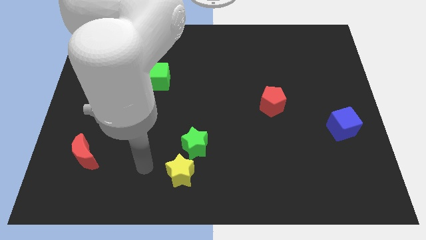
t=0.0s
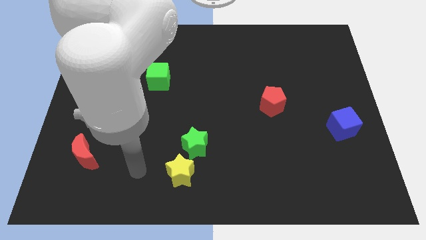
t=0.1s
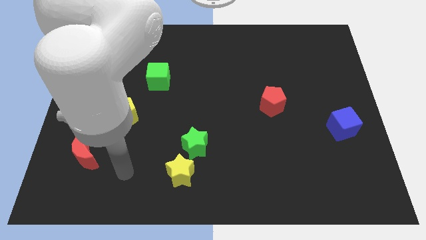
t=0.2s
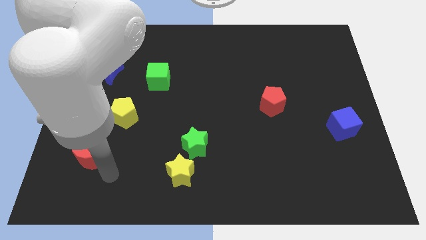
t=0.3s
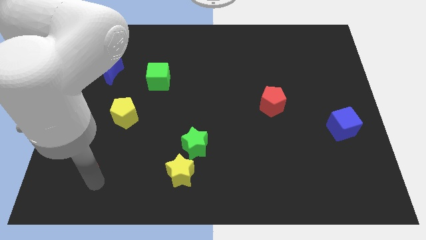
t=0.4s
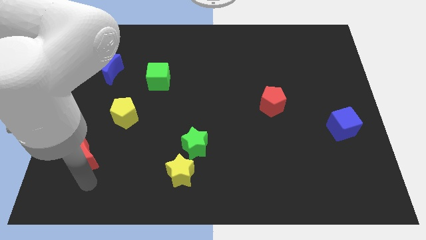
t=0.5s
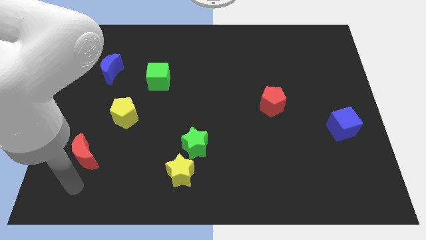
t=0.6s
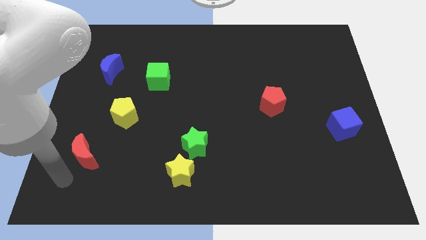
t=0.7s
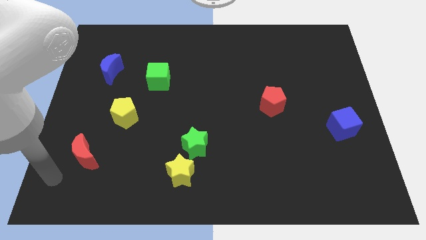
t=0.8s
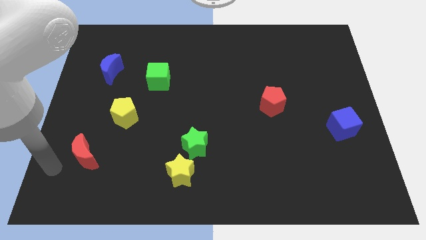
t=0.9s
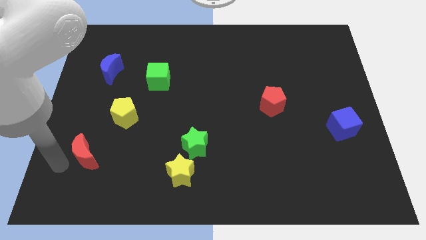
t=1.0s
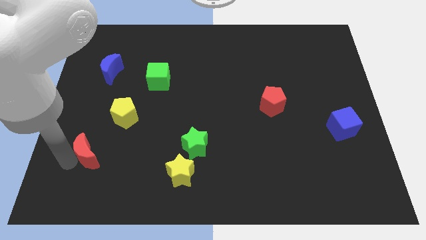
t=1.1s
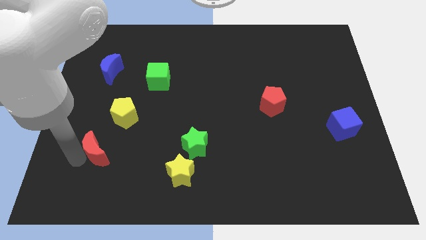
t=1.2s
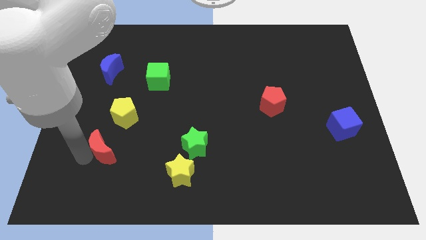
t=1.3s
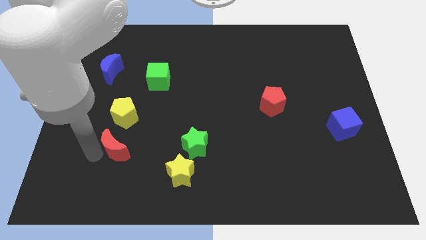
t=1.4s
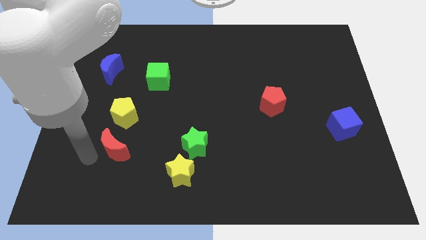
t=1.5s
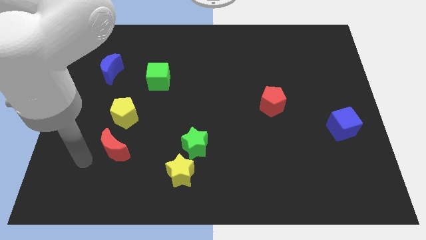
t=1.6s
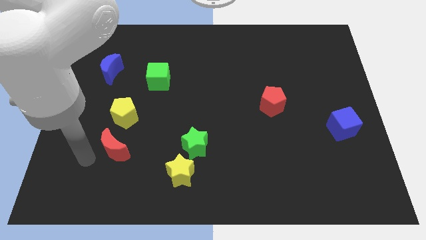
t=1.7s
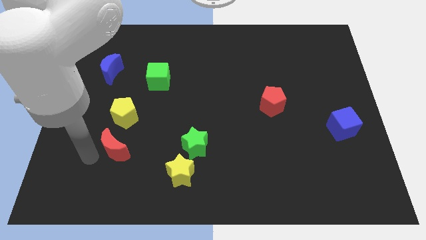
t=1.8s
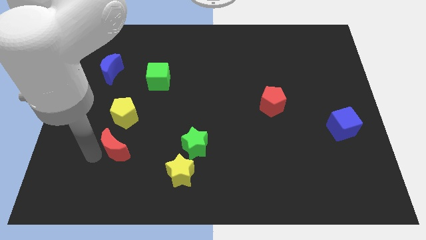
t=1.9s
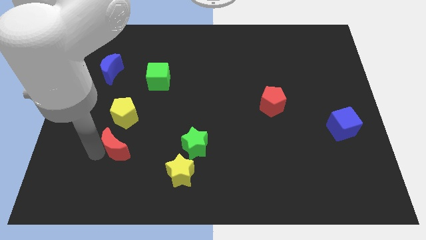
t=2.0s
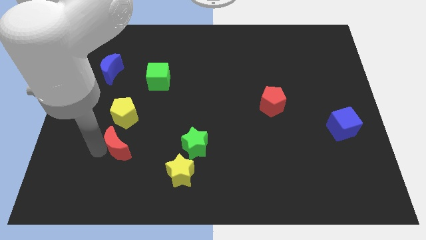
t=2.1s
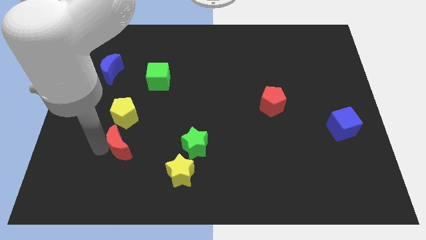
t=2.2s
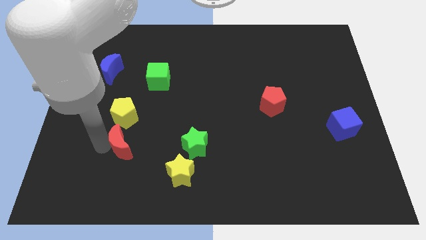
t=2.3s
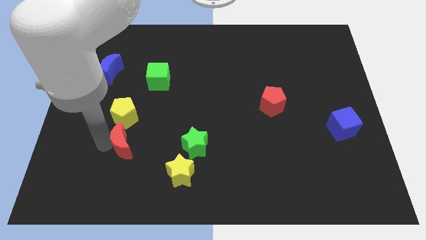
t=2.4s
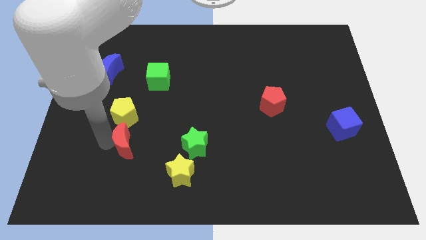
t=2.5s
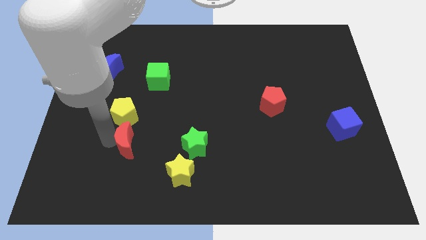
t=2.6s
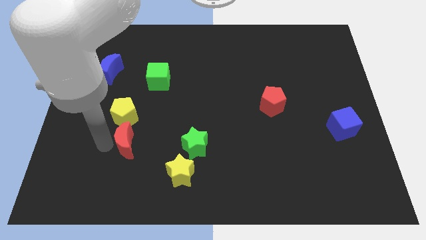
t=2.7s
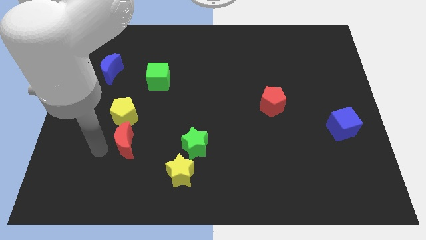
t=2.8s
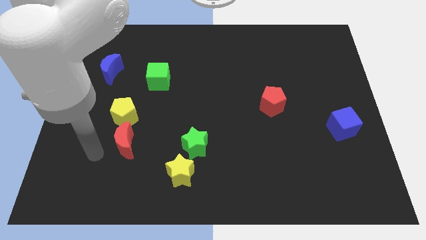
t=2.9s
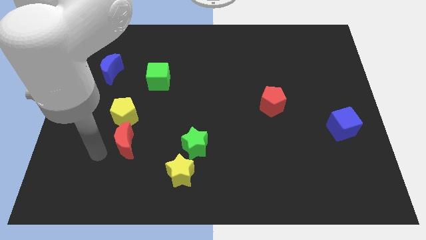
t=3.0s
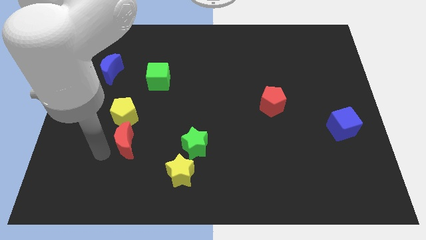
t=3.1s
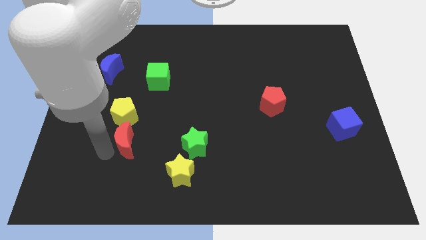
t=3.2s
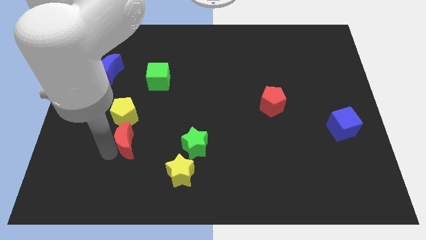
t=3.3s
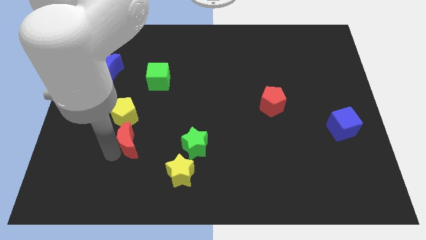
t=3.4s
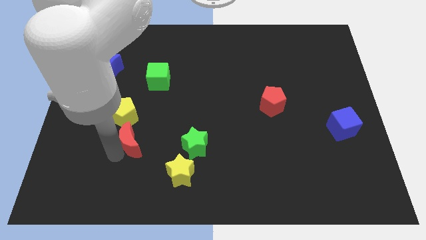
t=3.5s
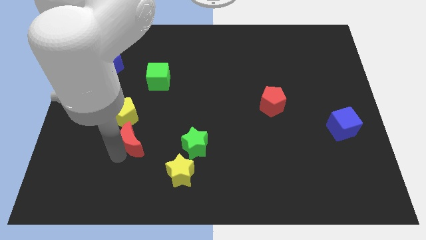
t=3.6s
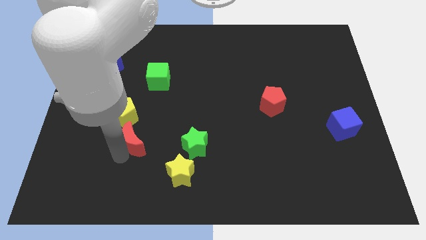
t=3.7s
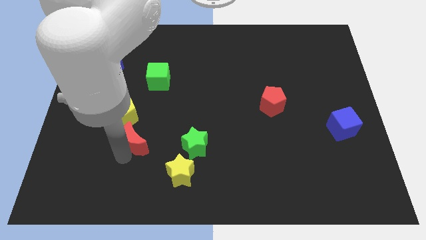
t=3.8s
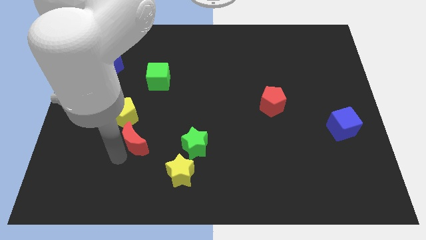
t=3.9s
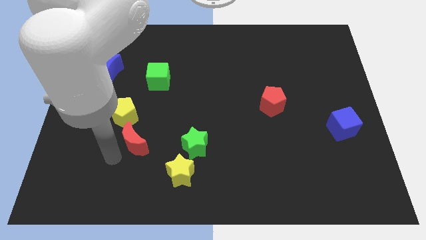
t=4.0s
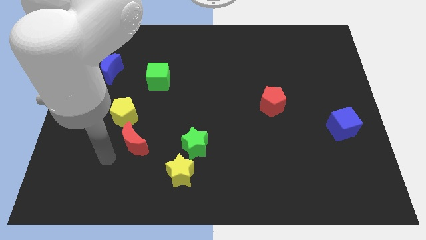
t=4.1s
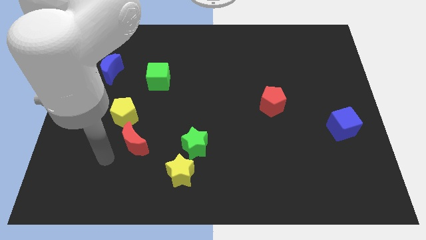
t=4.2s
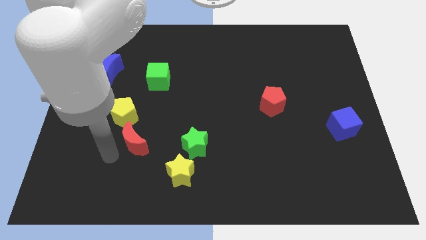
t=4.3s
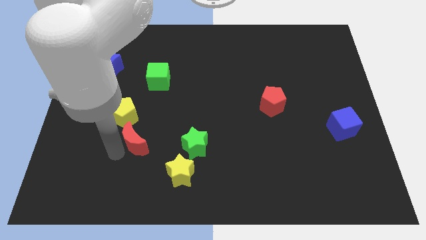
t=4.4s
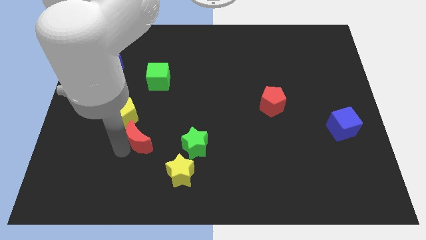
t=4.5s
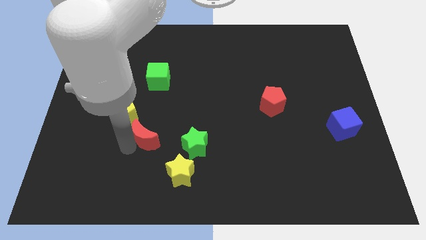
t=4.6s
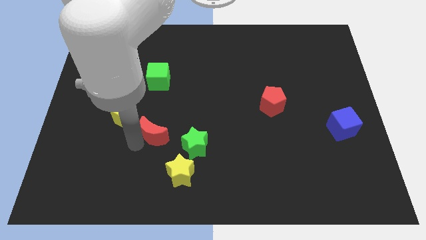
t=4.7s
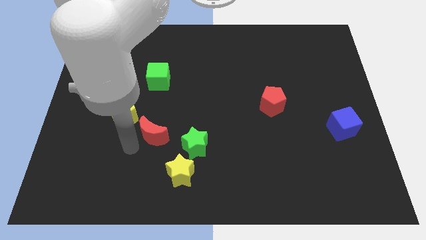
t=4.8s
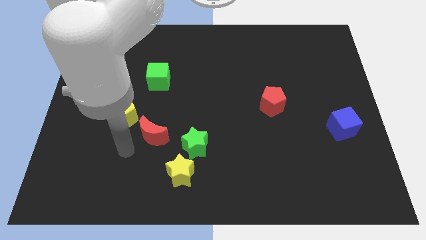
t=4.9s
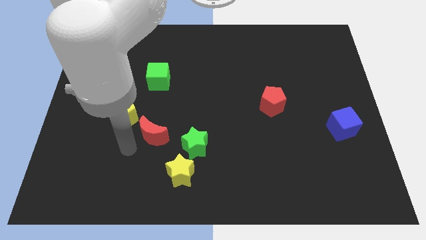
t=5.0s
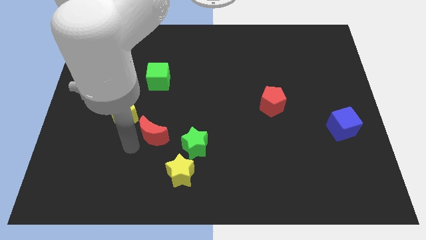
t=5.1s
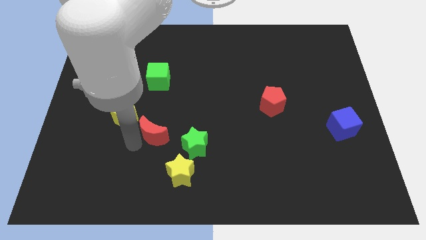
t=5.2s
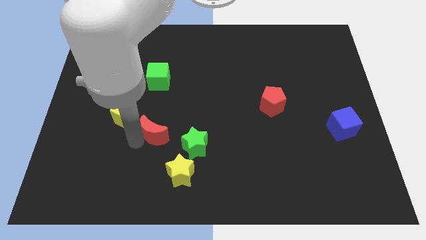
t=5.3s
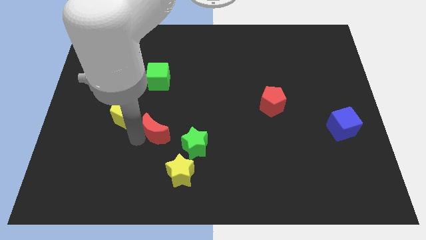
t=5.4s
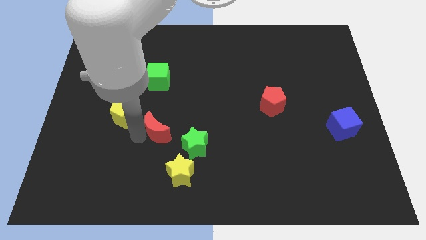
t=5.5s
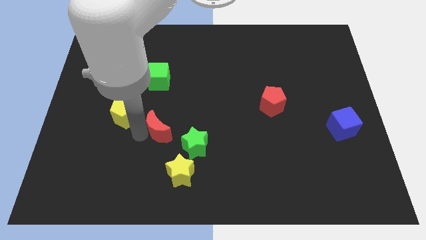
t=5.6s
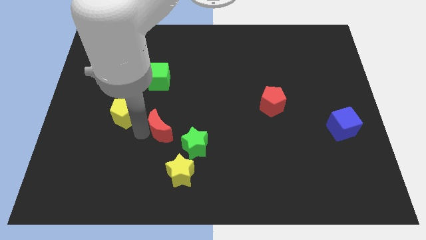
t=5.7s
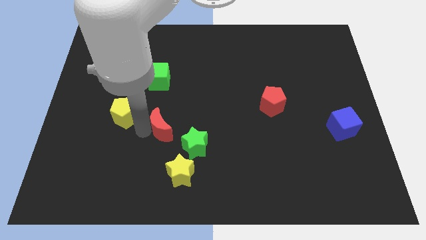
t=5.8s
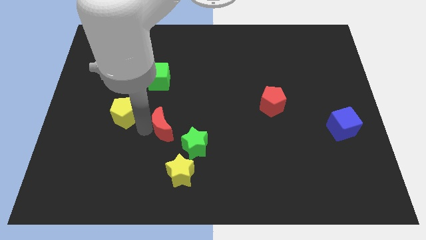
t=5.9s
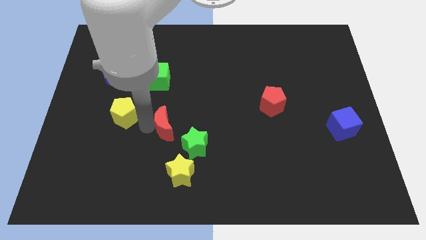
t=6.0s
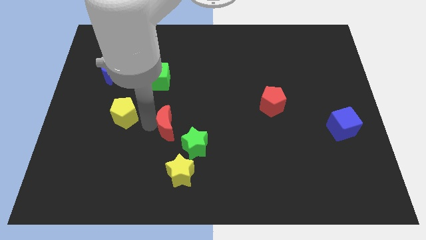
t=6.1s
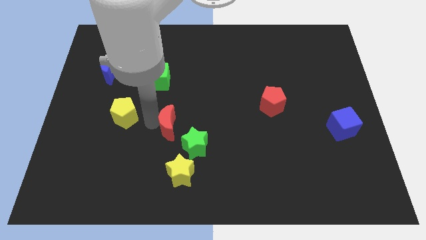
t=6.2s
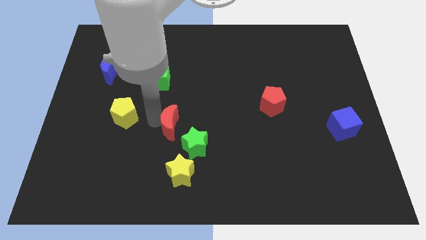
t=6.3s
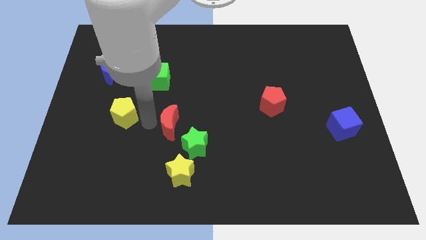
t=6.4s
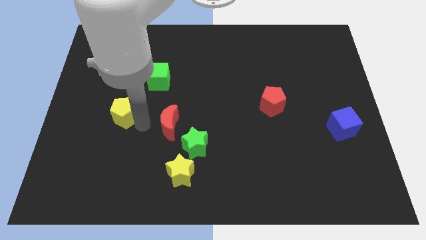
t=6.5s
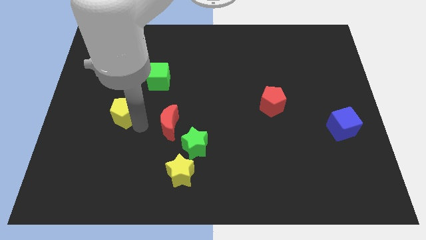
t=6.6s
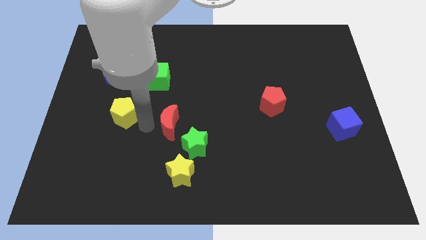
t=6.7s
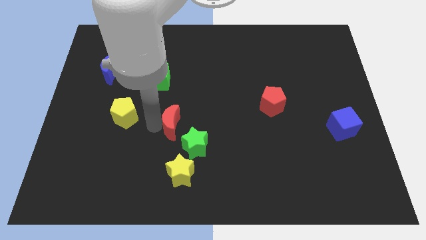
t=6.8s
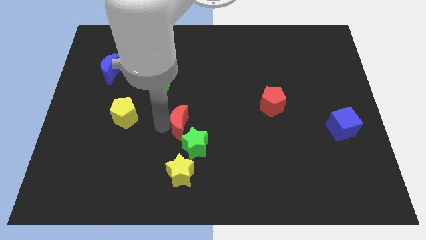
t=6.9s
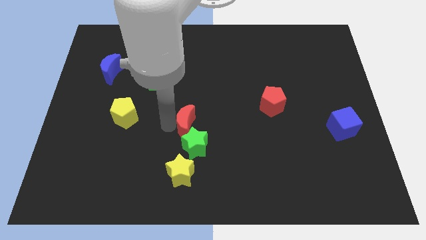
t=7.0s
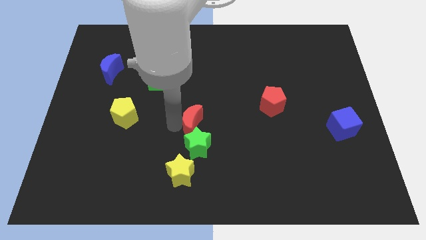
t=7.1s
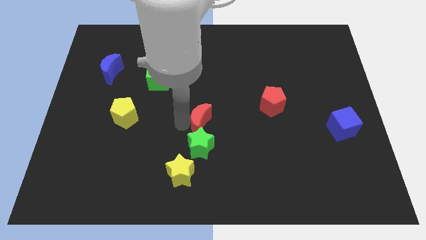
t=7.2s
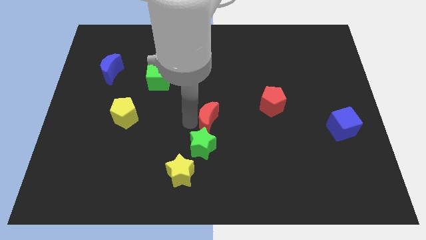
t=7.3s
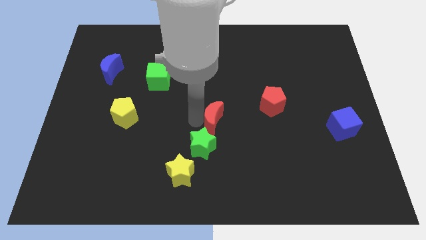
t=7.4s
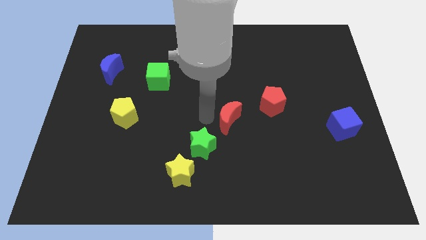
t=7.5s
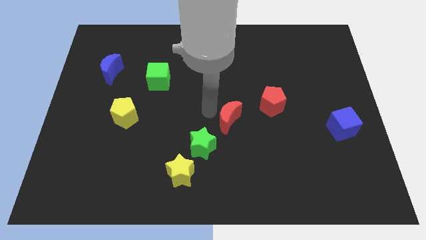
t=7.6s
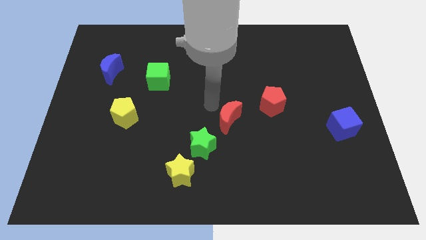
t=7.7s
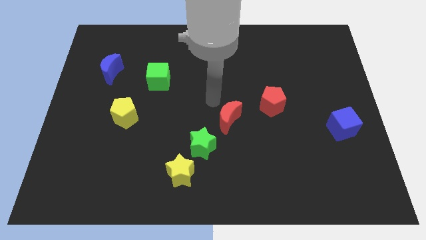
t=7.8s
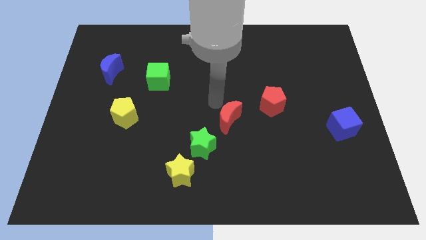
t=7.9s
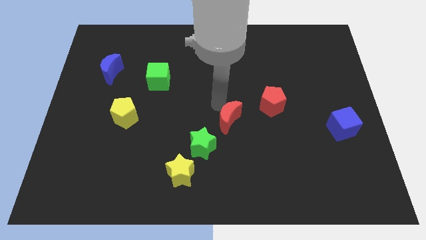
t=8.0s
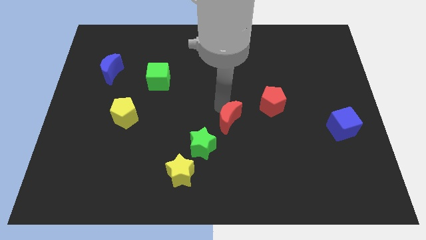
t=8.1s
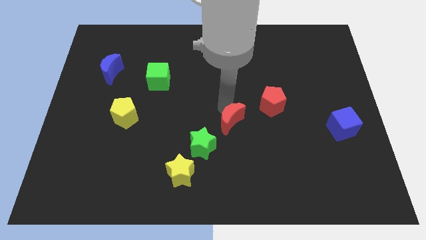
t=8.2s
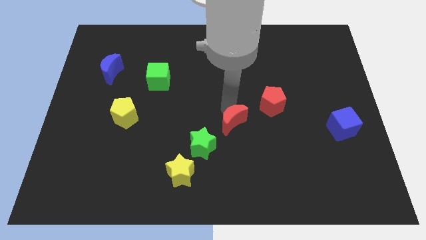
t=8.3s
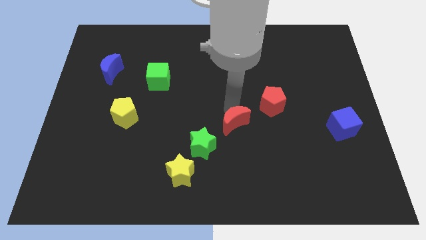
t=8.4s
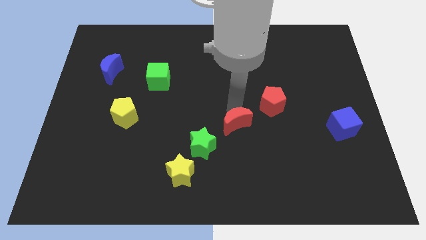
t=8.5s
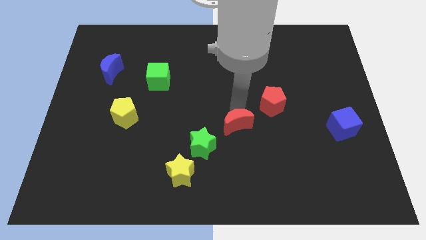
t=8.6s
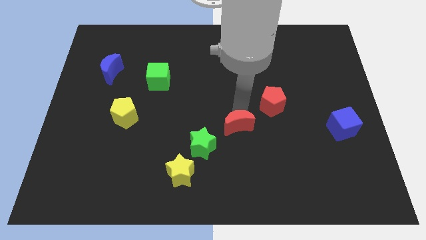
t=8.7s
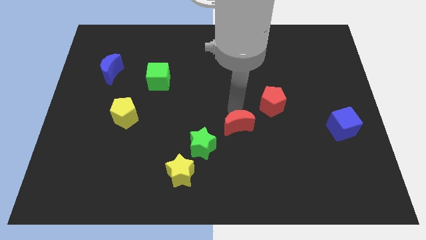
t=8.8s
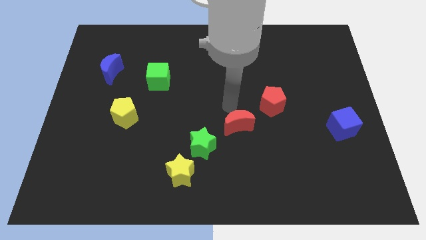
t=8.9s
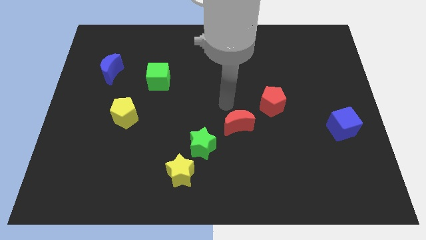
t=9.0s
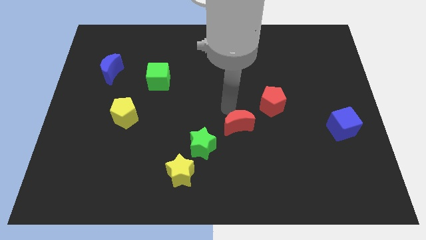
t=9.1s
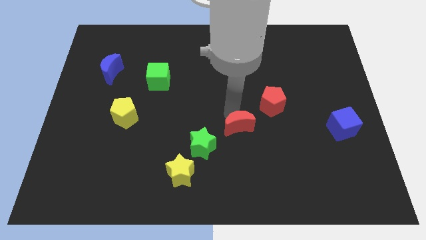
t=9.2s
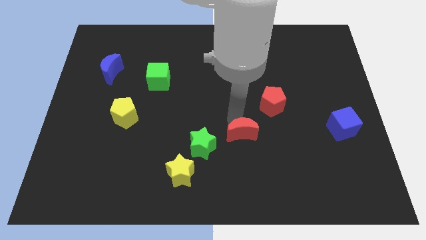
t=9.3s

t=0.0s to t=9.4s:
move the red moon to the right of the green star
